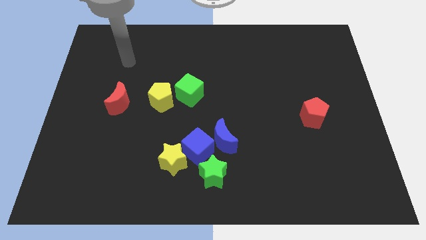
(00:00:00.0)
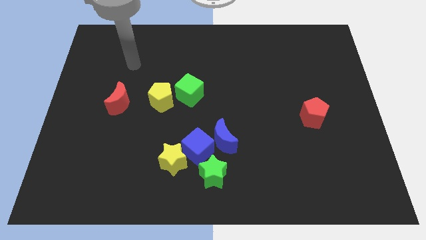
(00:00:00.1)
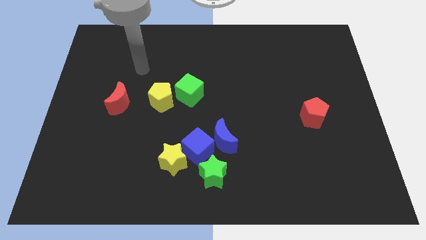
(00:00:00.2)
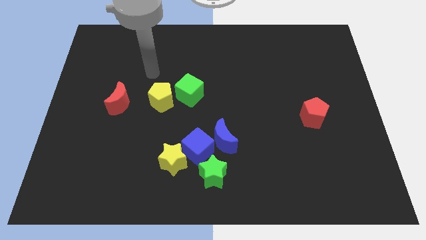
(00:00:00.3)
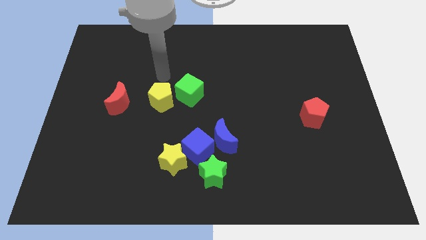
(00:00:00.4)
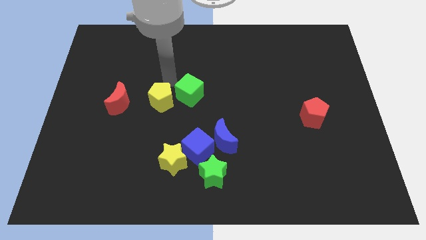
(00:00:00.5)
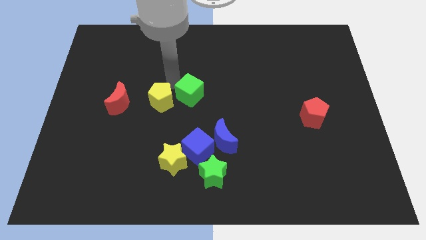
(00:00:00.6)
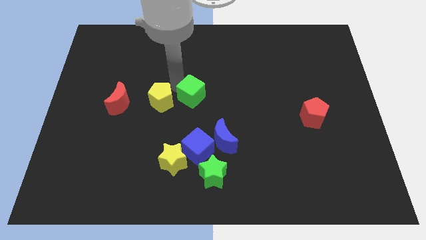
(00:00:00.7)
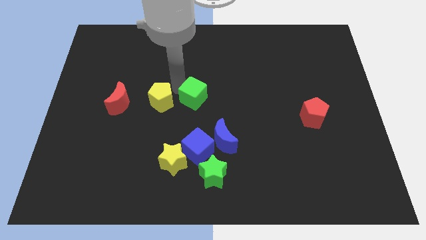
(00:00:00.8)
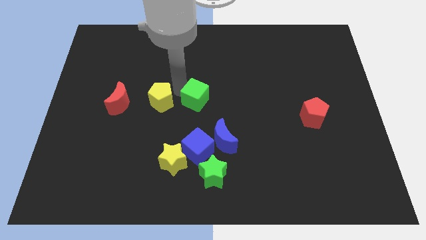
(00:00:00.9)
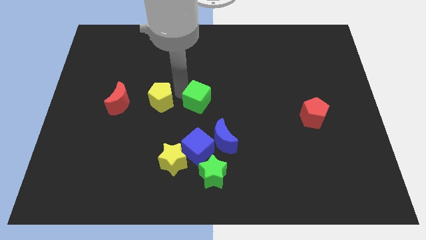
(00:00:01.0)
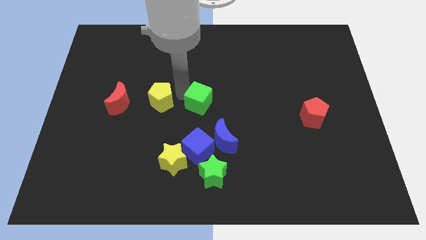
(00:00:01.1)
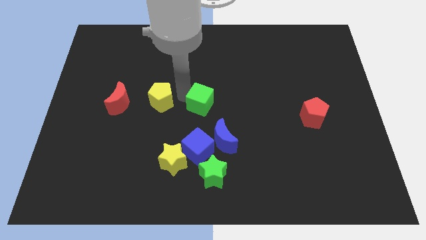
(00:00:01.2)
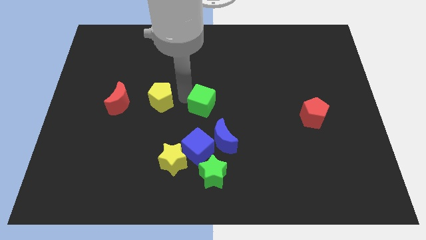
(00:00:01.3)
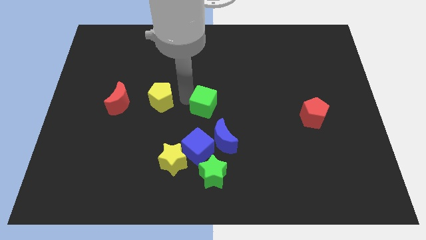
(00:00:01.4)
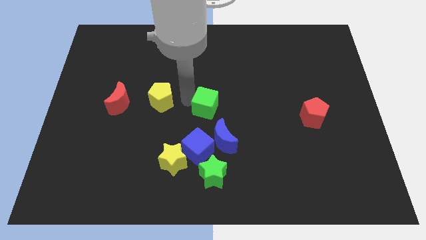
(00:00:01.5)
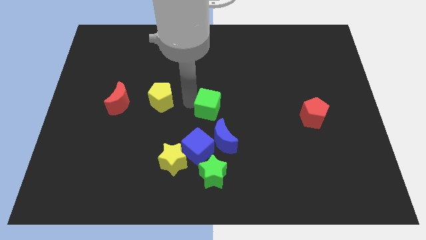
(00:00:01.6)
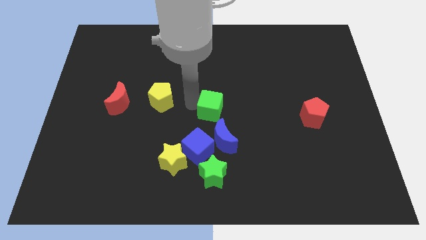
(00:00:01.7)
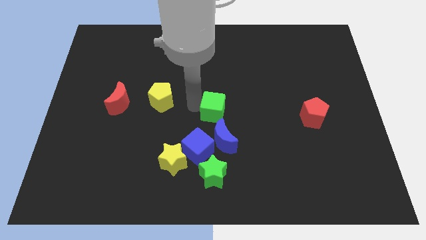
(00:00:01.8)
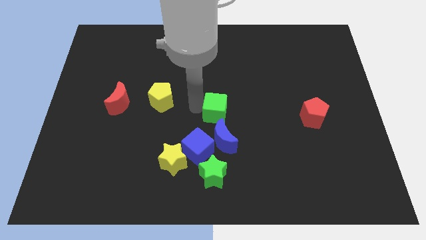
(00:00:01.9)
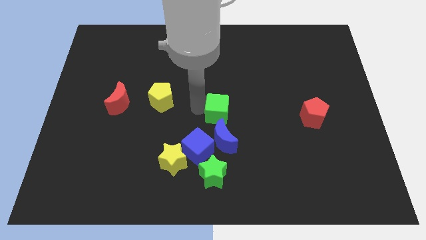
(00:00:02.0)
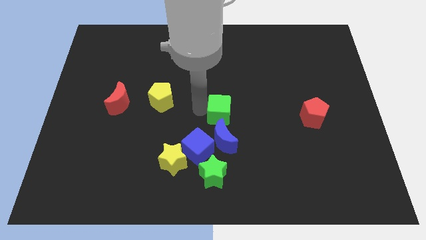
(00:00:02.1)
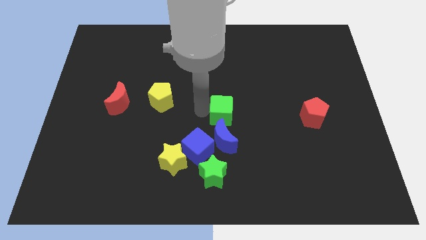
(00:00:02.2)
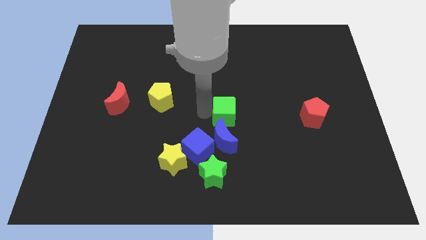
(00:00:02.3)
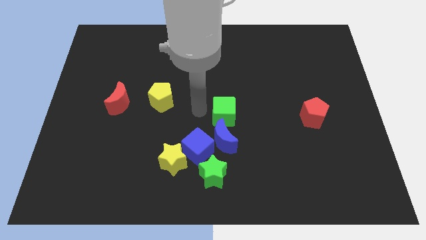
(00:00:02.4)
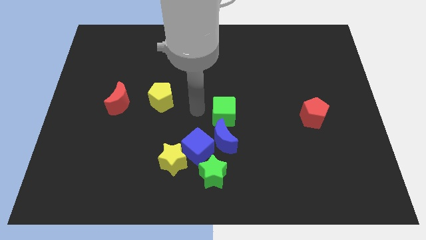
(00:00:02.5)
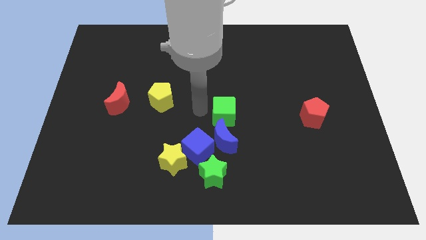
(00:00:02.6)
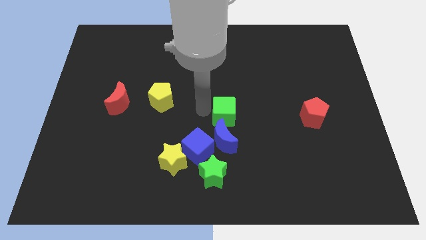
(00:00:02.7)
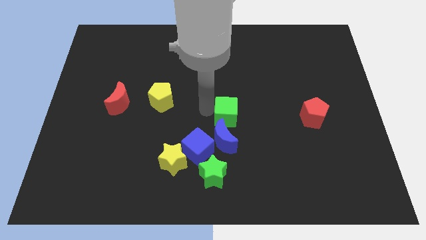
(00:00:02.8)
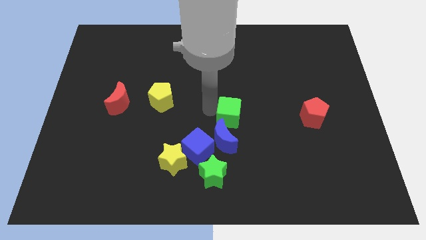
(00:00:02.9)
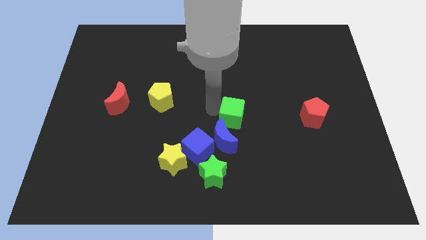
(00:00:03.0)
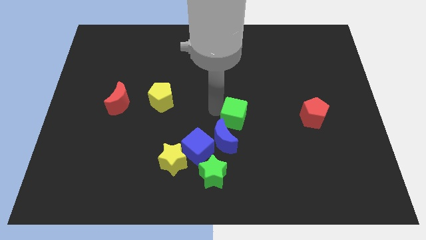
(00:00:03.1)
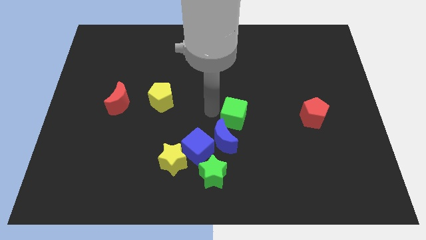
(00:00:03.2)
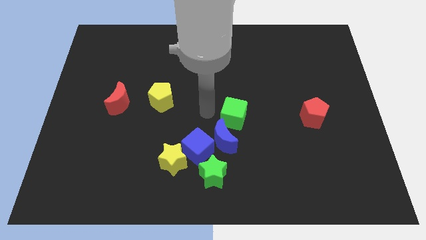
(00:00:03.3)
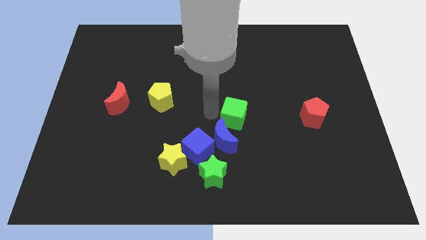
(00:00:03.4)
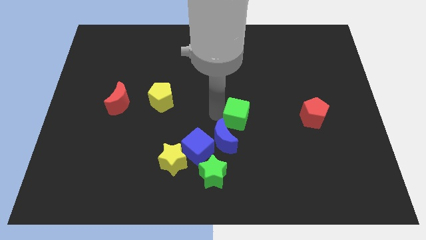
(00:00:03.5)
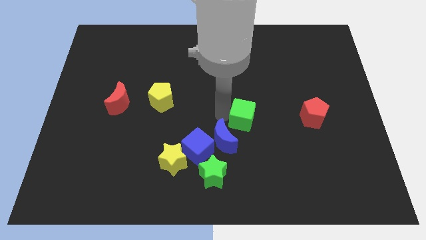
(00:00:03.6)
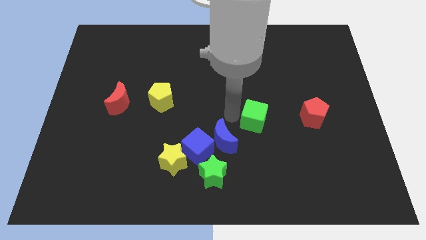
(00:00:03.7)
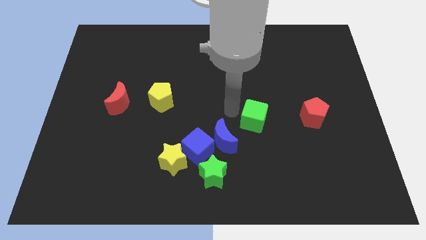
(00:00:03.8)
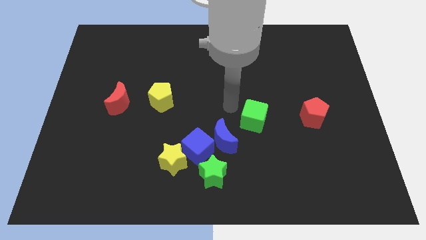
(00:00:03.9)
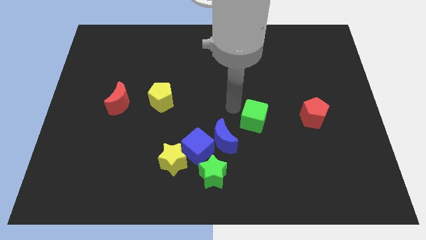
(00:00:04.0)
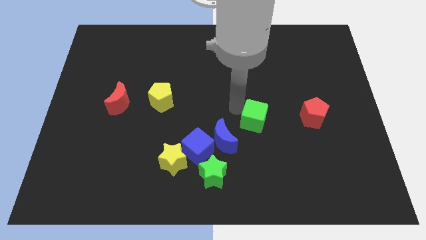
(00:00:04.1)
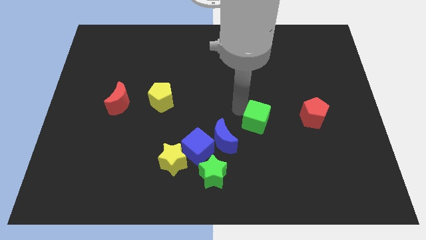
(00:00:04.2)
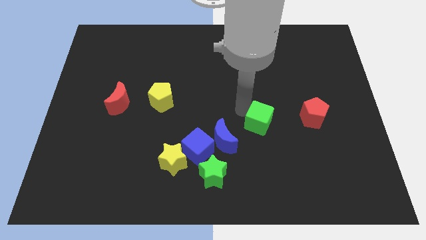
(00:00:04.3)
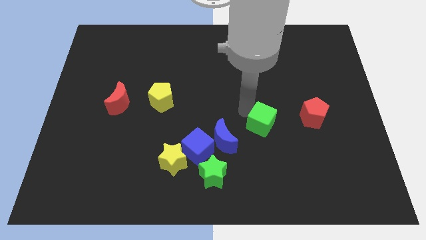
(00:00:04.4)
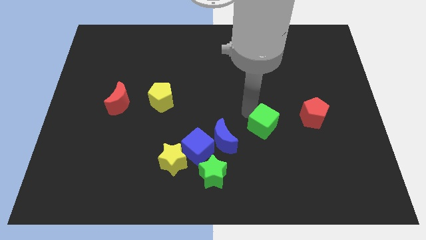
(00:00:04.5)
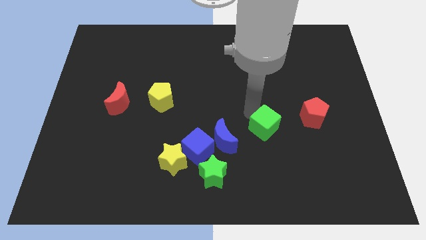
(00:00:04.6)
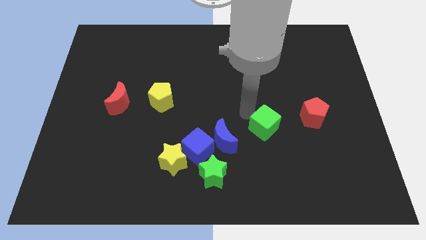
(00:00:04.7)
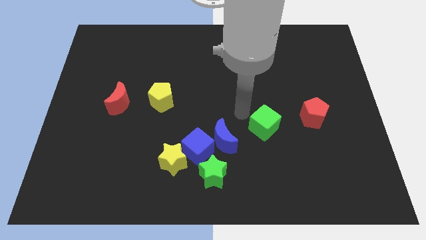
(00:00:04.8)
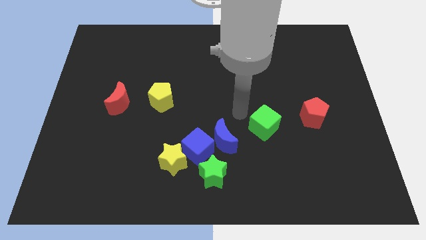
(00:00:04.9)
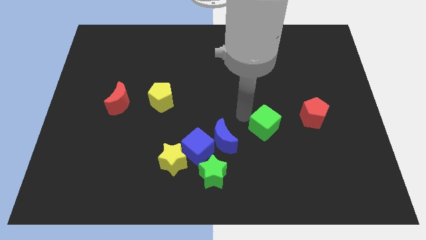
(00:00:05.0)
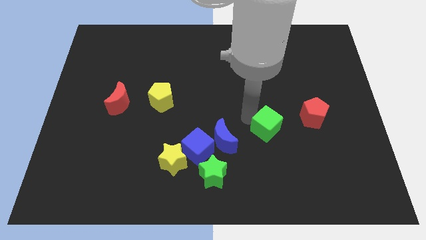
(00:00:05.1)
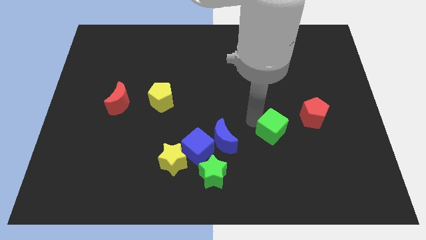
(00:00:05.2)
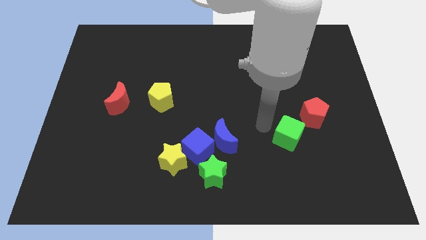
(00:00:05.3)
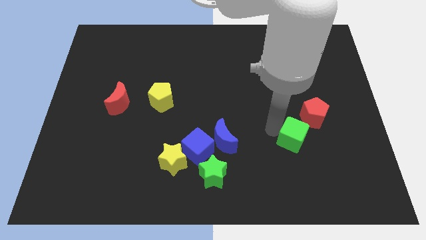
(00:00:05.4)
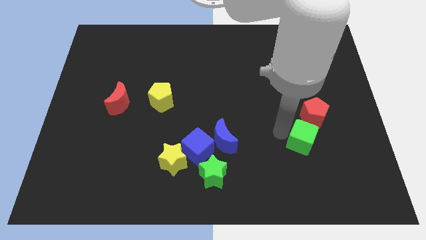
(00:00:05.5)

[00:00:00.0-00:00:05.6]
move the green cube to the bottom of the red pentagon

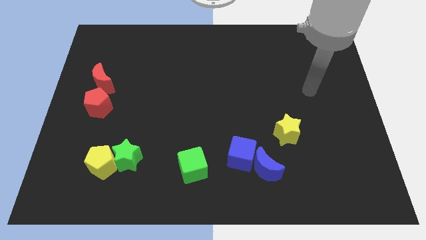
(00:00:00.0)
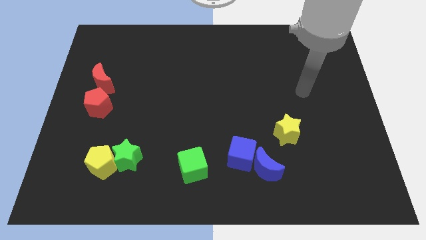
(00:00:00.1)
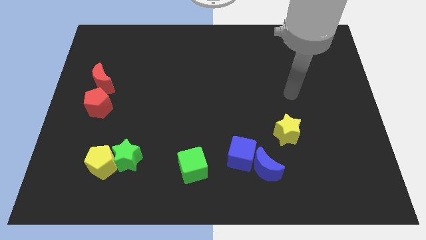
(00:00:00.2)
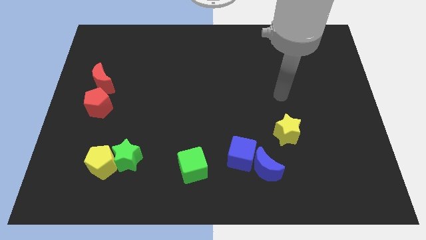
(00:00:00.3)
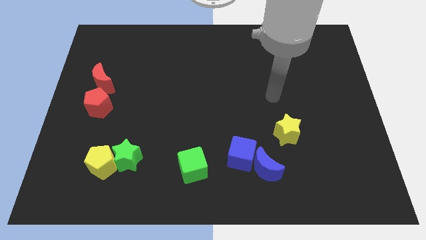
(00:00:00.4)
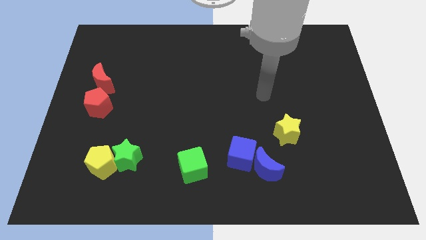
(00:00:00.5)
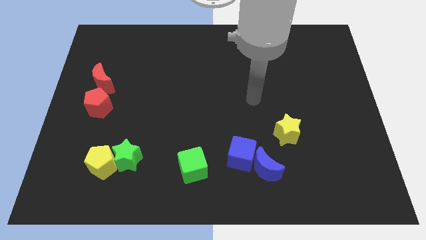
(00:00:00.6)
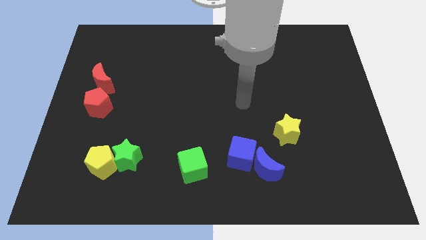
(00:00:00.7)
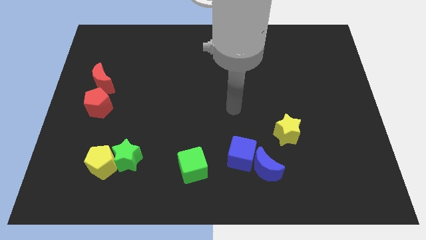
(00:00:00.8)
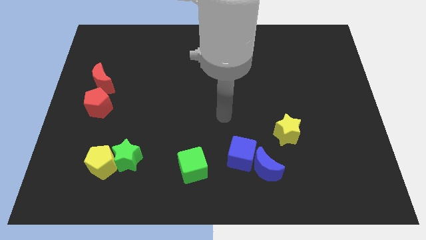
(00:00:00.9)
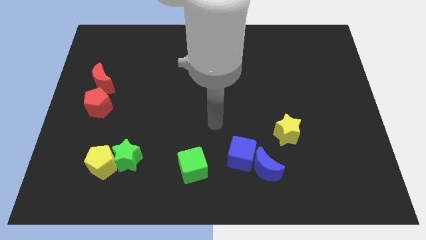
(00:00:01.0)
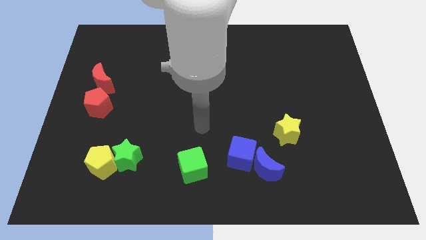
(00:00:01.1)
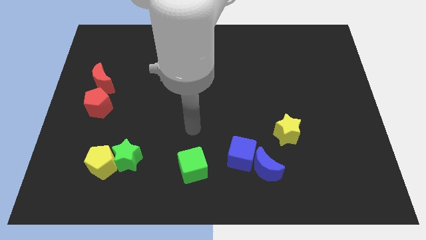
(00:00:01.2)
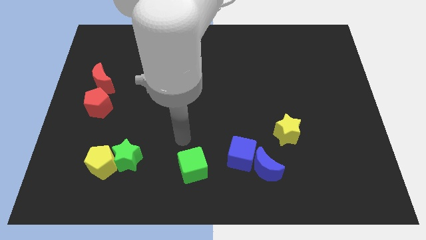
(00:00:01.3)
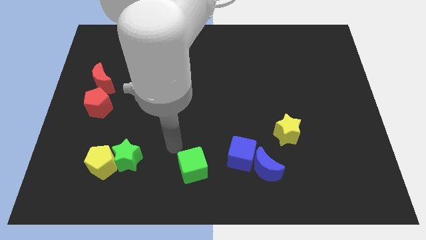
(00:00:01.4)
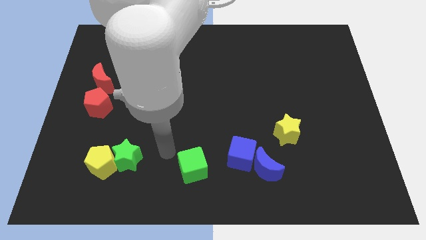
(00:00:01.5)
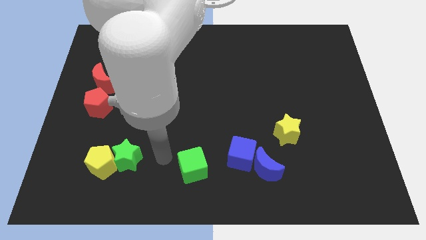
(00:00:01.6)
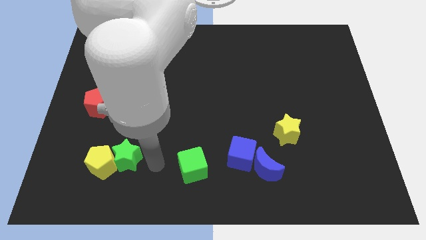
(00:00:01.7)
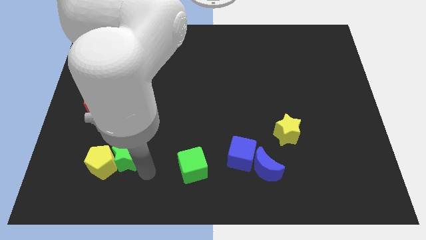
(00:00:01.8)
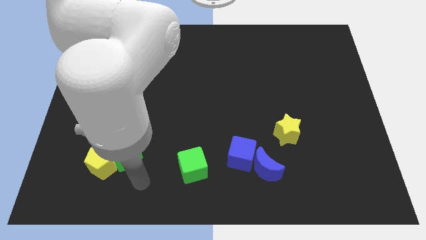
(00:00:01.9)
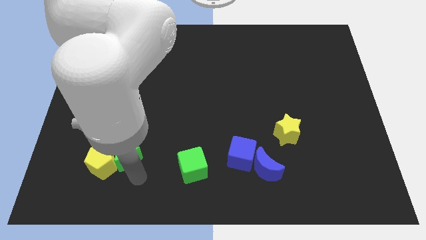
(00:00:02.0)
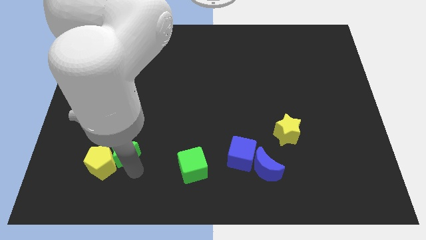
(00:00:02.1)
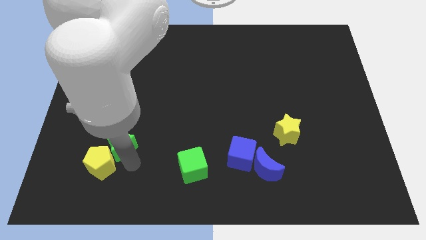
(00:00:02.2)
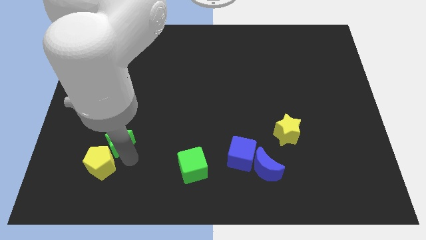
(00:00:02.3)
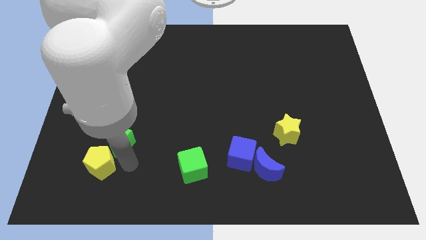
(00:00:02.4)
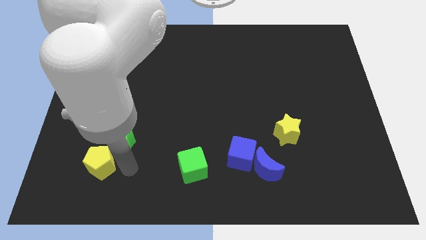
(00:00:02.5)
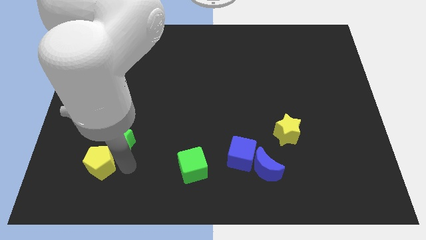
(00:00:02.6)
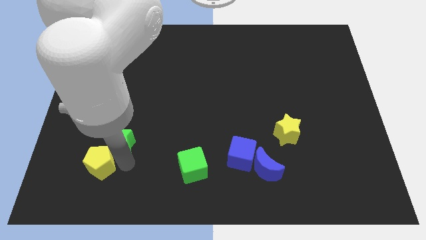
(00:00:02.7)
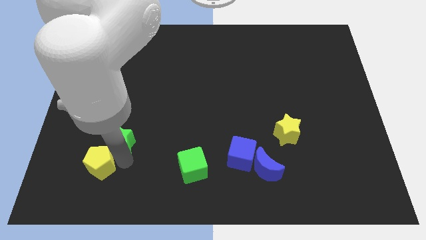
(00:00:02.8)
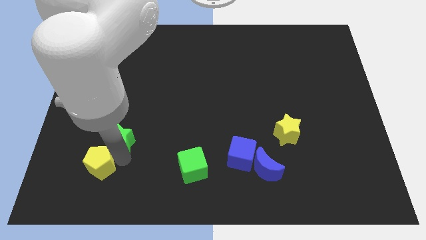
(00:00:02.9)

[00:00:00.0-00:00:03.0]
move the green star to the bottom right of the red pentagon
